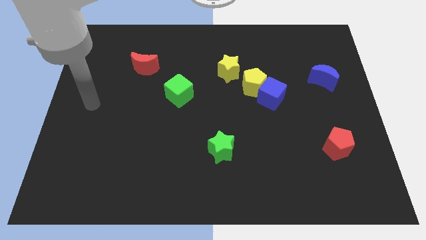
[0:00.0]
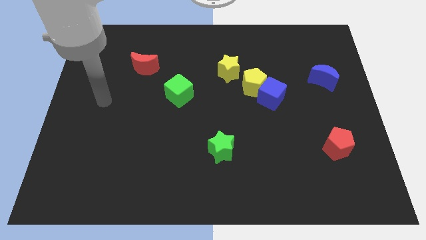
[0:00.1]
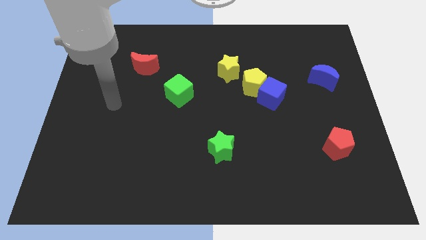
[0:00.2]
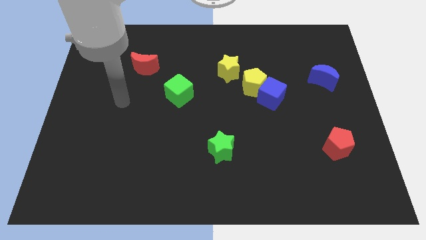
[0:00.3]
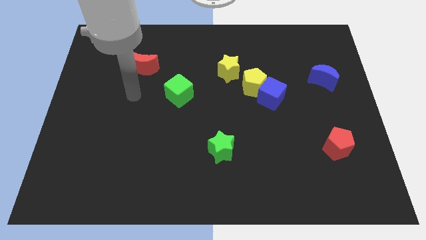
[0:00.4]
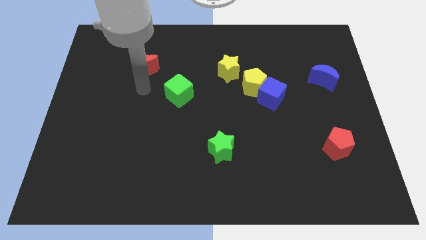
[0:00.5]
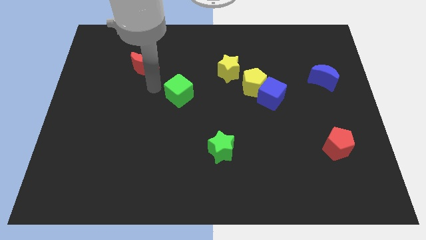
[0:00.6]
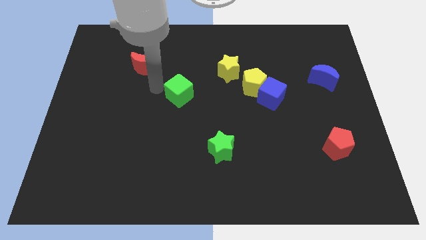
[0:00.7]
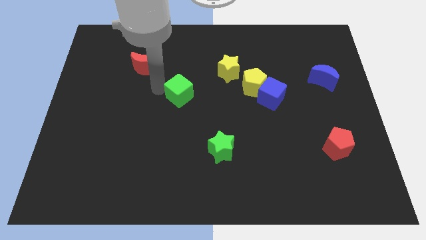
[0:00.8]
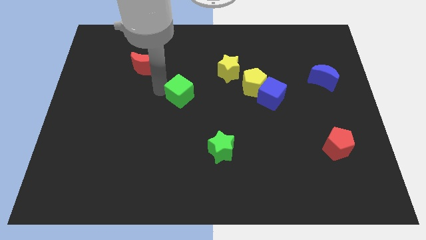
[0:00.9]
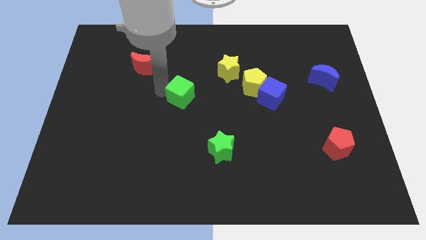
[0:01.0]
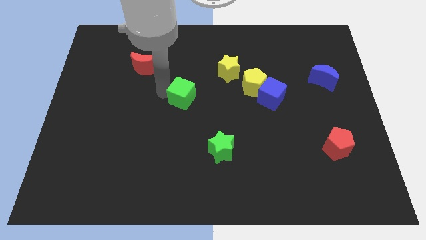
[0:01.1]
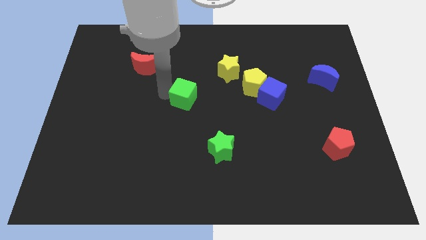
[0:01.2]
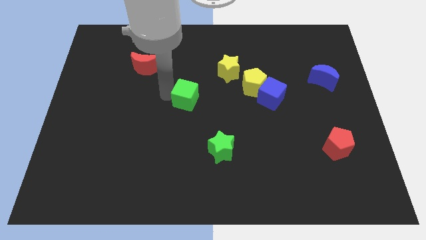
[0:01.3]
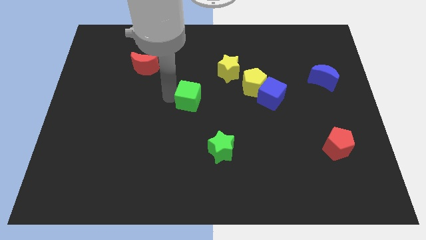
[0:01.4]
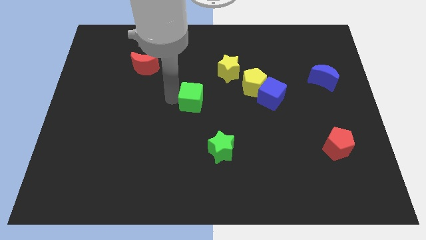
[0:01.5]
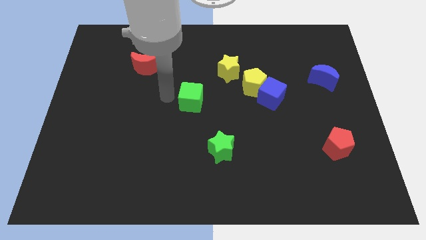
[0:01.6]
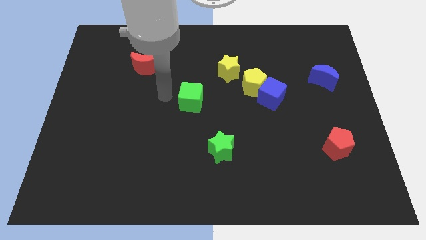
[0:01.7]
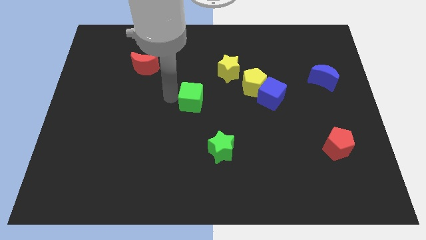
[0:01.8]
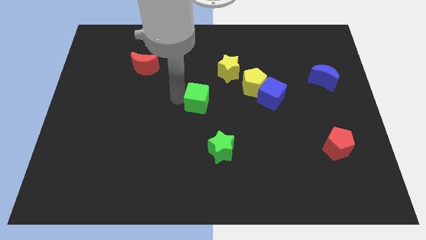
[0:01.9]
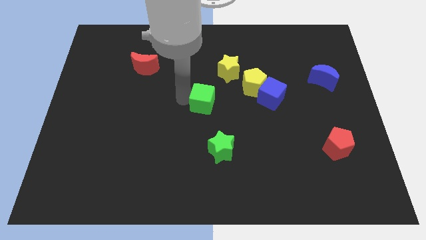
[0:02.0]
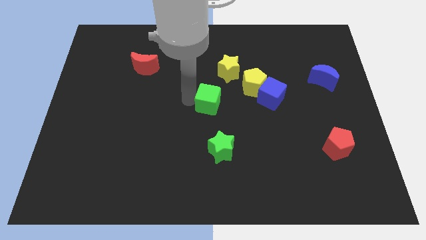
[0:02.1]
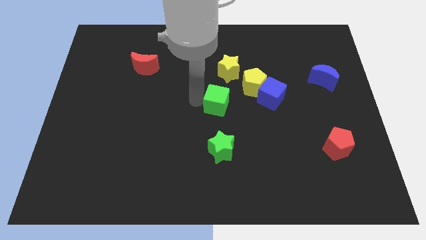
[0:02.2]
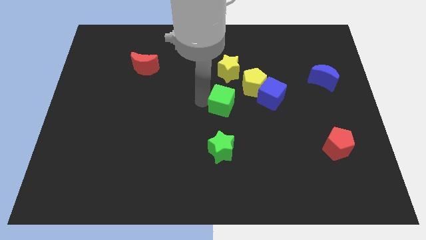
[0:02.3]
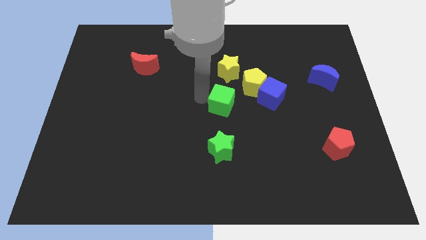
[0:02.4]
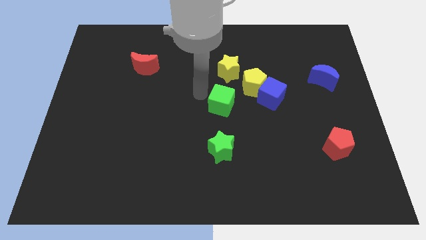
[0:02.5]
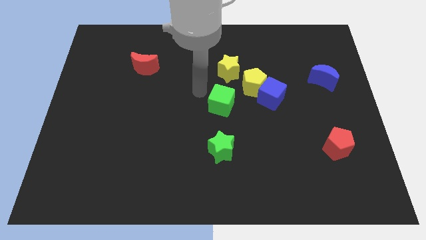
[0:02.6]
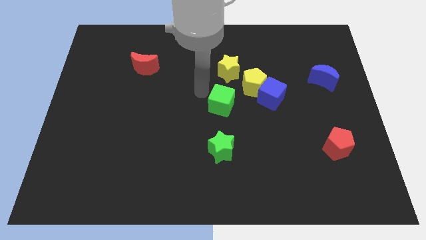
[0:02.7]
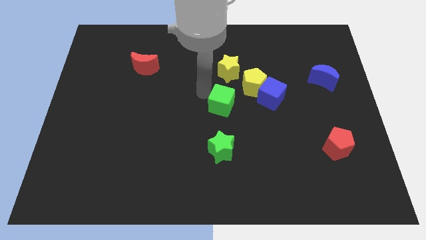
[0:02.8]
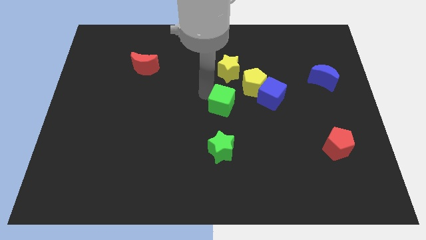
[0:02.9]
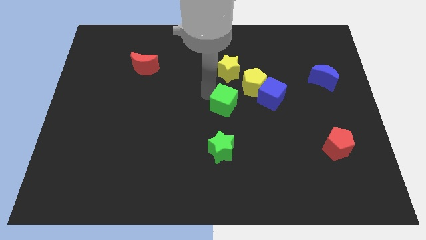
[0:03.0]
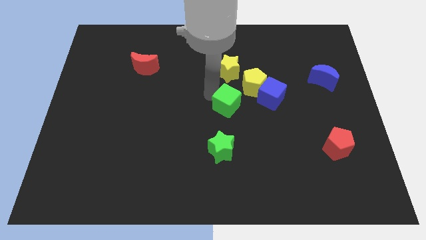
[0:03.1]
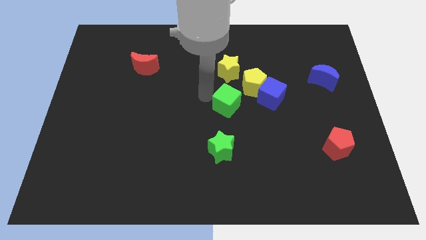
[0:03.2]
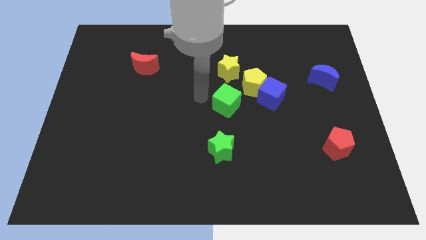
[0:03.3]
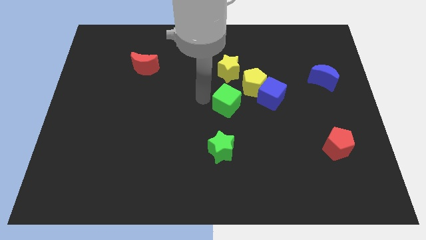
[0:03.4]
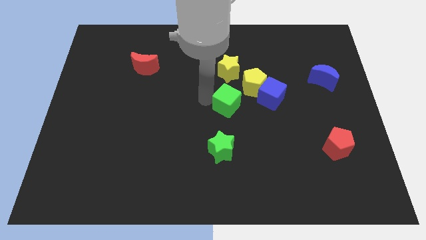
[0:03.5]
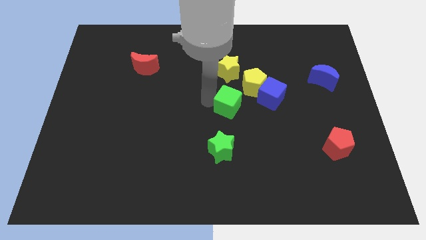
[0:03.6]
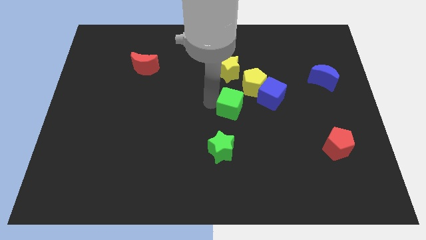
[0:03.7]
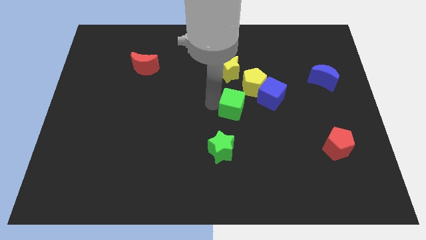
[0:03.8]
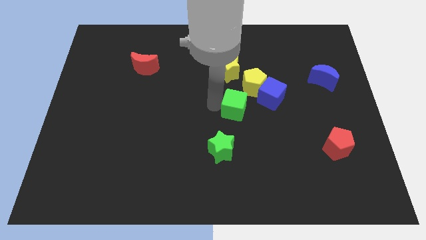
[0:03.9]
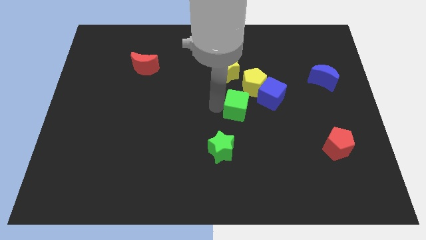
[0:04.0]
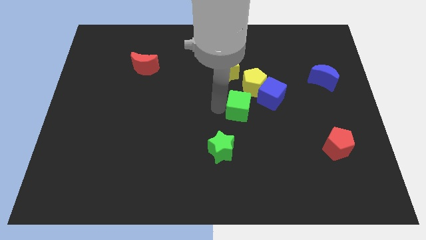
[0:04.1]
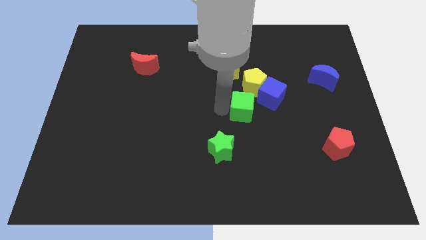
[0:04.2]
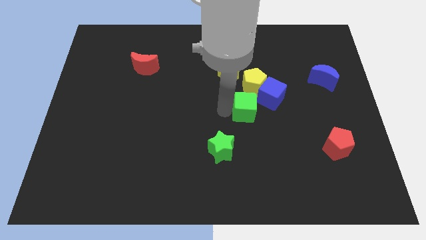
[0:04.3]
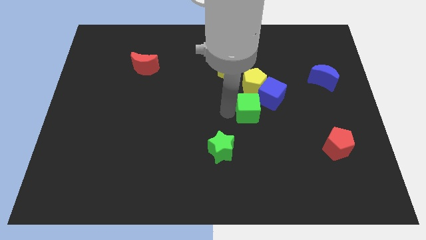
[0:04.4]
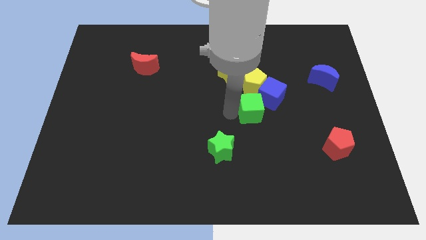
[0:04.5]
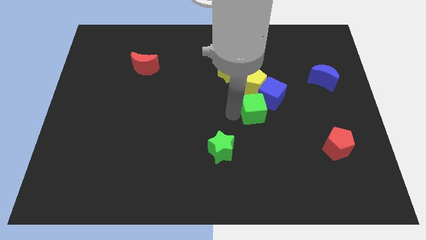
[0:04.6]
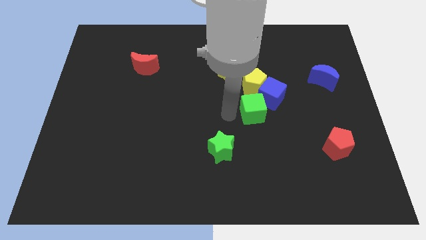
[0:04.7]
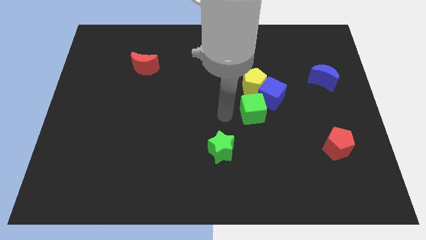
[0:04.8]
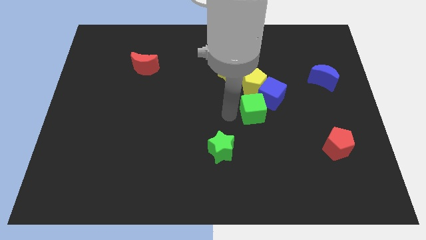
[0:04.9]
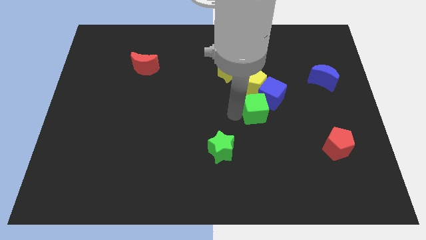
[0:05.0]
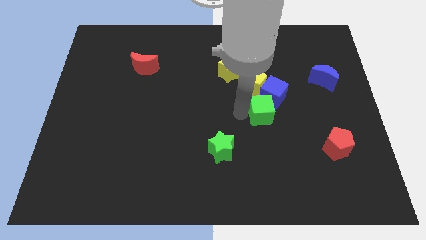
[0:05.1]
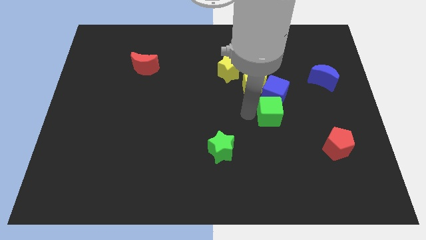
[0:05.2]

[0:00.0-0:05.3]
push the green cube to the right

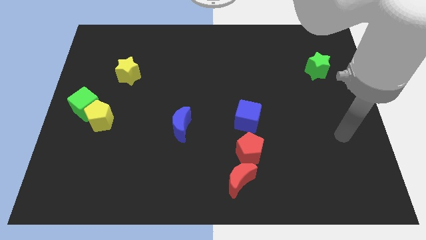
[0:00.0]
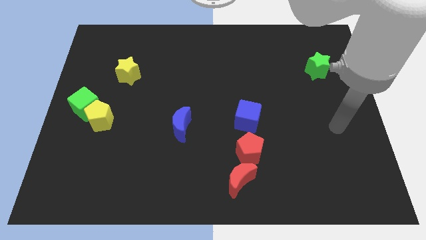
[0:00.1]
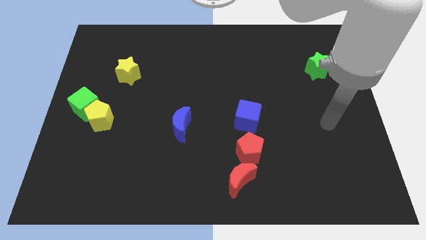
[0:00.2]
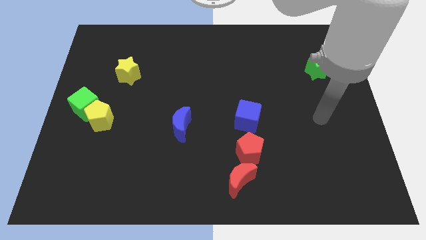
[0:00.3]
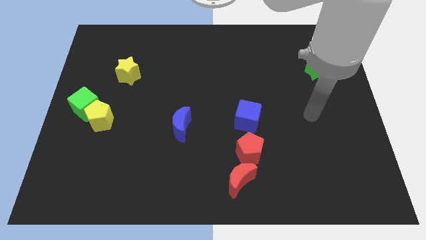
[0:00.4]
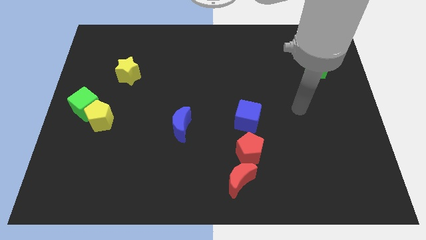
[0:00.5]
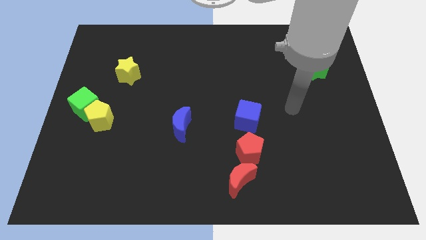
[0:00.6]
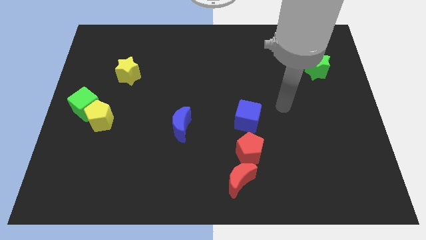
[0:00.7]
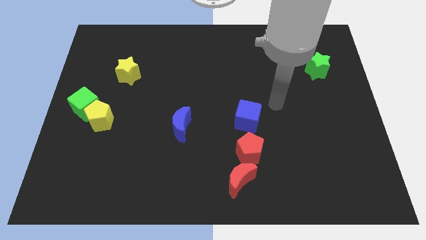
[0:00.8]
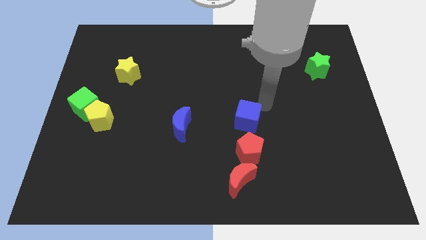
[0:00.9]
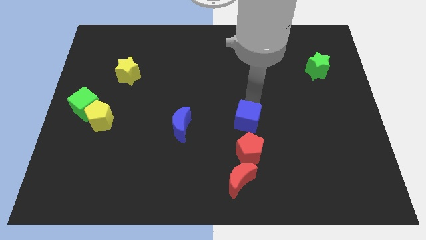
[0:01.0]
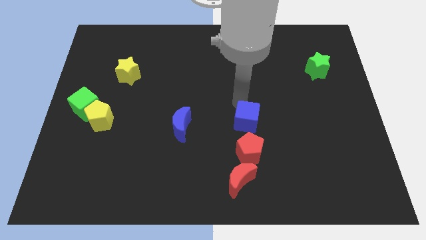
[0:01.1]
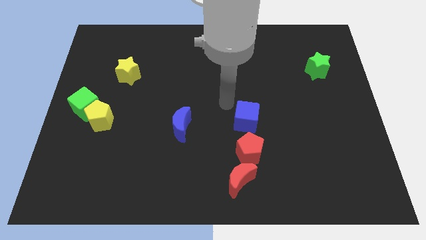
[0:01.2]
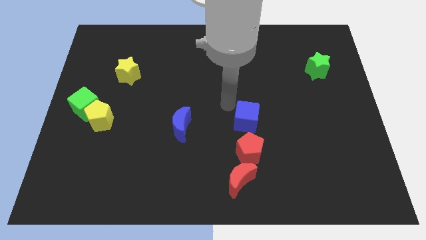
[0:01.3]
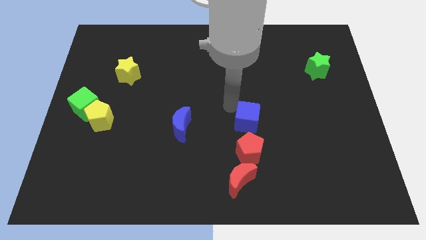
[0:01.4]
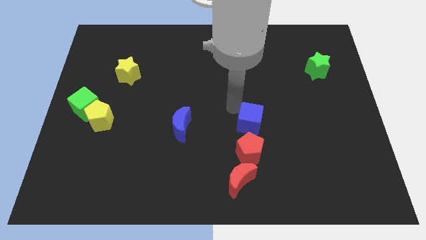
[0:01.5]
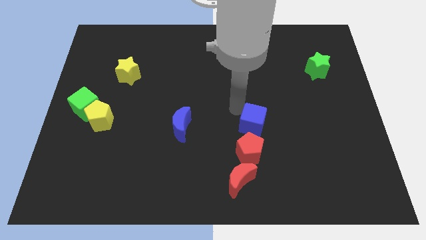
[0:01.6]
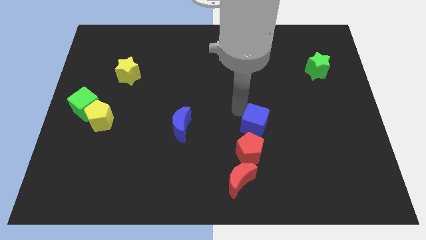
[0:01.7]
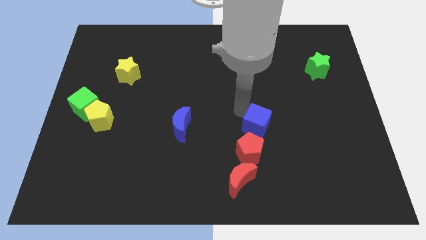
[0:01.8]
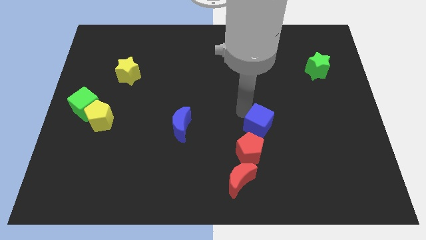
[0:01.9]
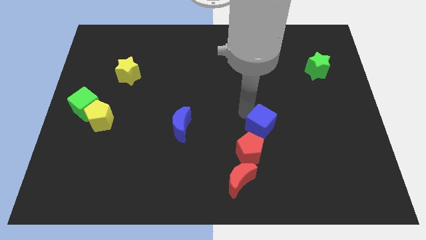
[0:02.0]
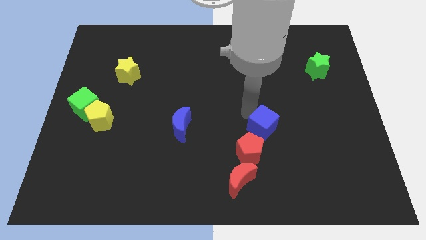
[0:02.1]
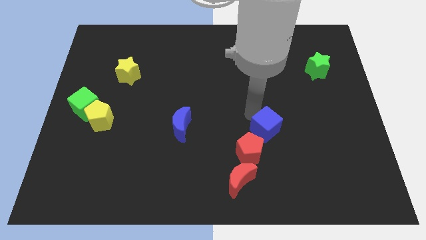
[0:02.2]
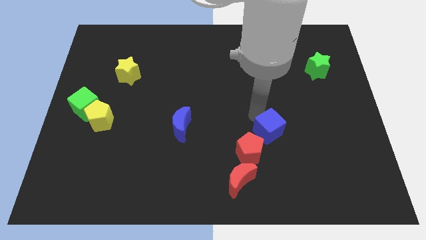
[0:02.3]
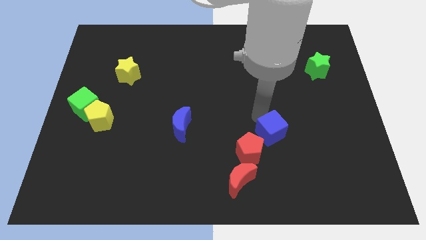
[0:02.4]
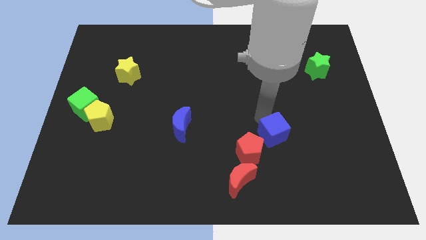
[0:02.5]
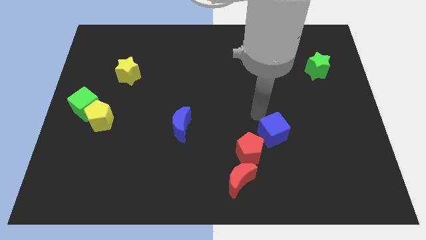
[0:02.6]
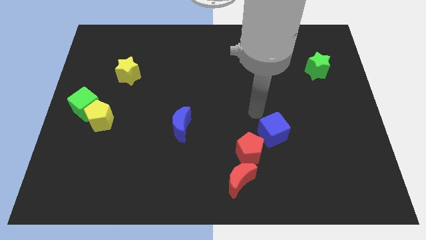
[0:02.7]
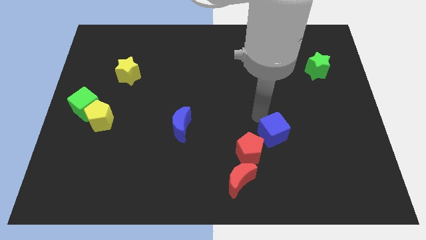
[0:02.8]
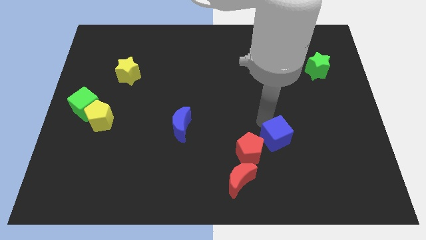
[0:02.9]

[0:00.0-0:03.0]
slightly push the blue cube down and right diagonally
